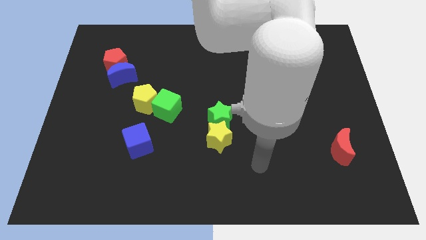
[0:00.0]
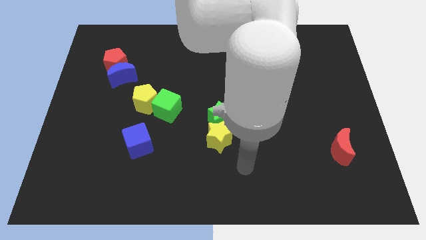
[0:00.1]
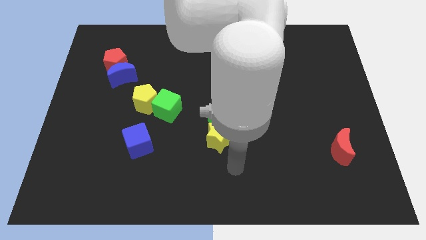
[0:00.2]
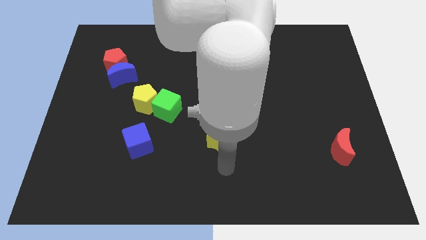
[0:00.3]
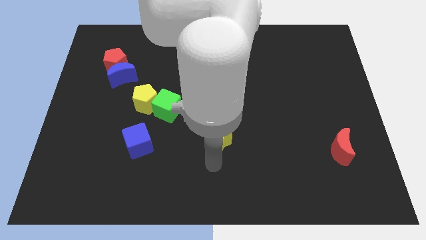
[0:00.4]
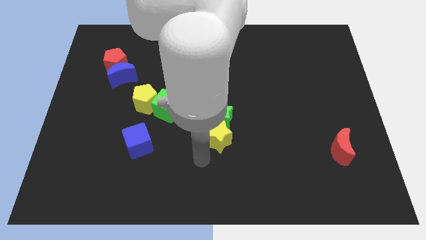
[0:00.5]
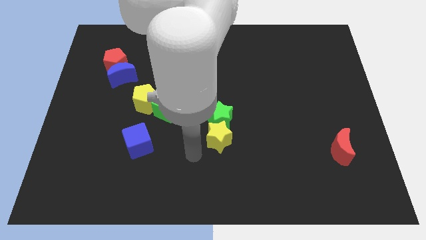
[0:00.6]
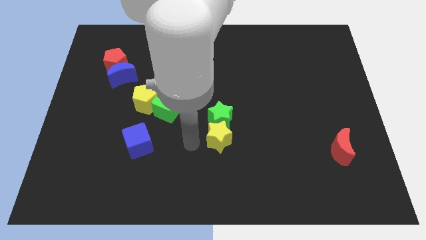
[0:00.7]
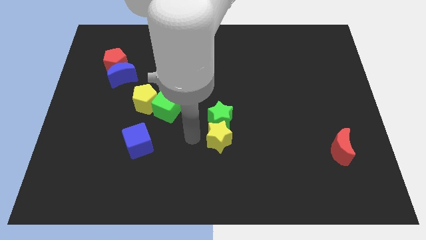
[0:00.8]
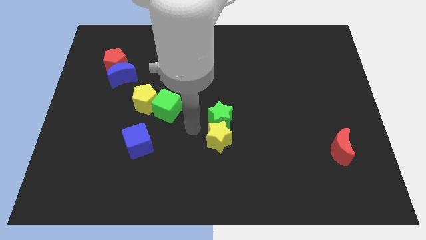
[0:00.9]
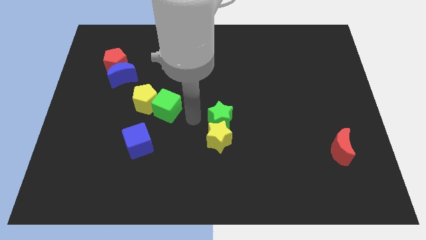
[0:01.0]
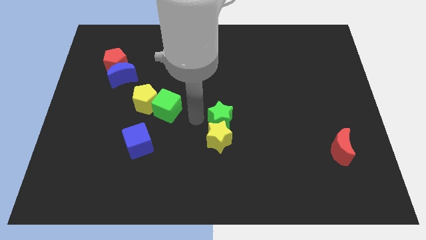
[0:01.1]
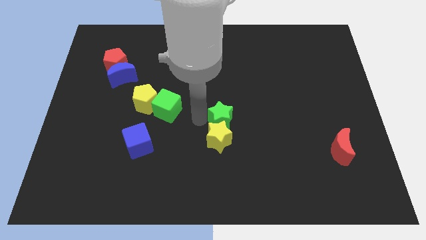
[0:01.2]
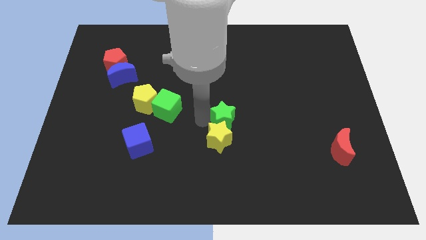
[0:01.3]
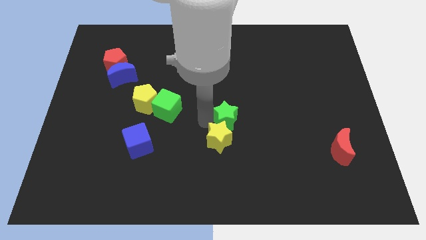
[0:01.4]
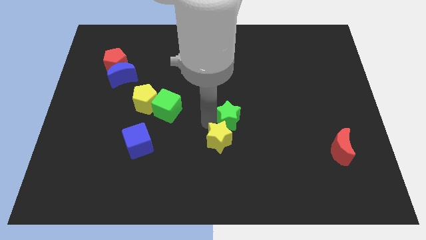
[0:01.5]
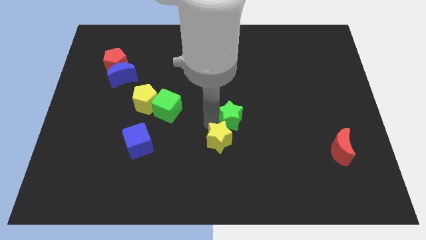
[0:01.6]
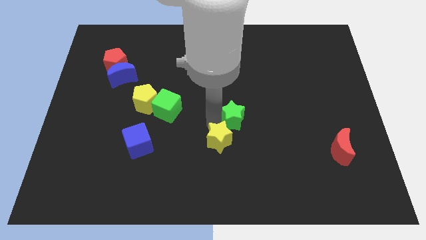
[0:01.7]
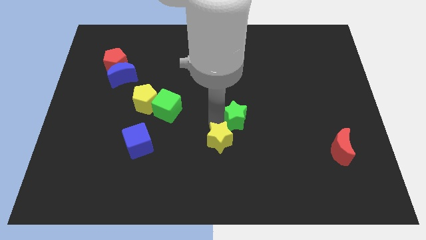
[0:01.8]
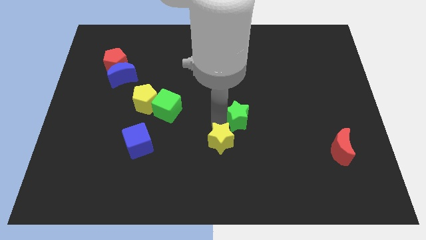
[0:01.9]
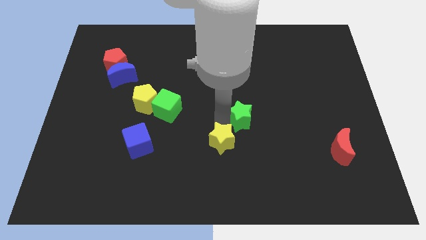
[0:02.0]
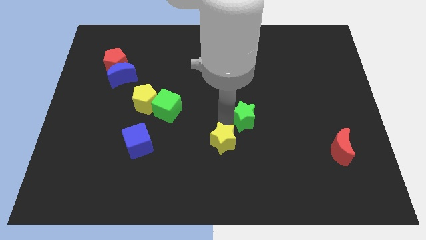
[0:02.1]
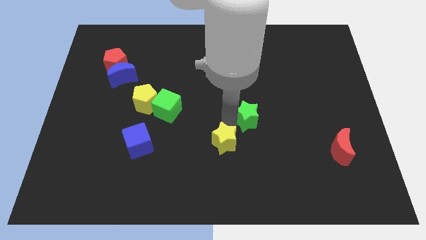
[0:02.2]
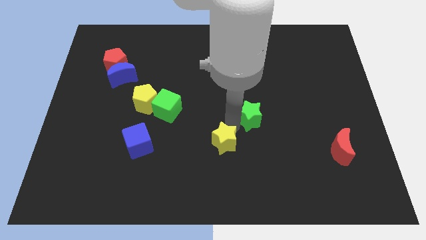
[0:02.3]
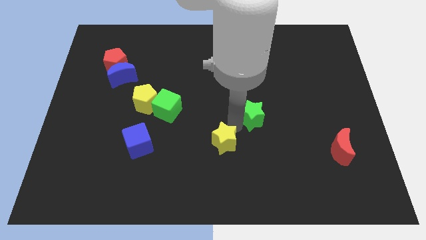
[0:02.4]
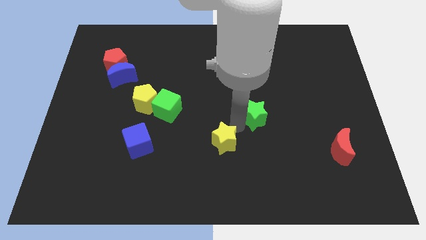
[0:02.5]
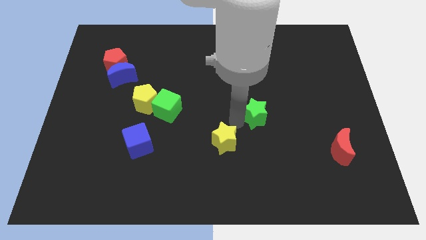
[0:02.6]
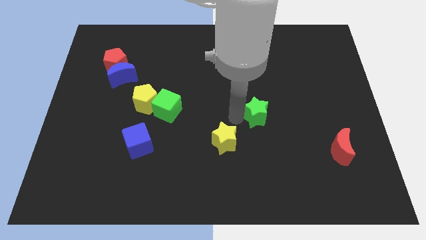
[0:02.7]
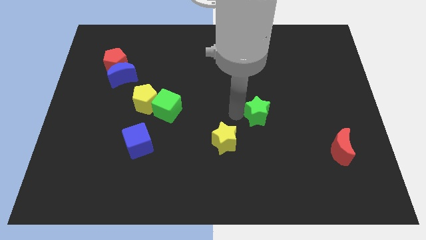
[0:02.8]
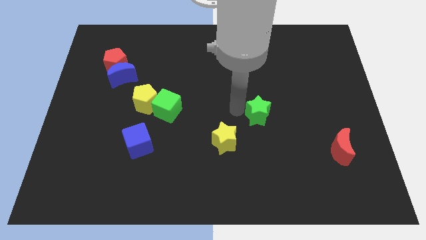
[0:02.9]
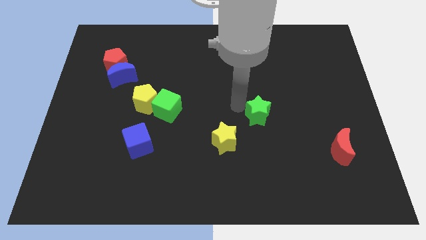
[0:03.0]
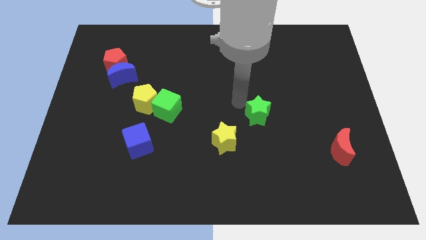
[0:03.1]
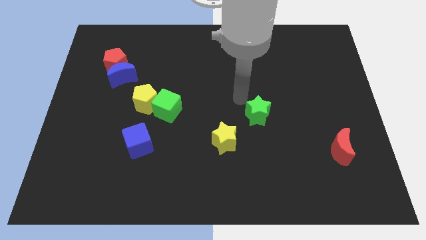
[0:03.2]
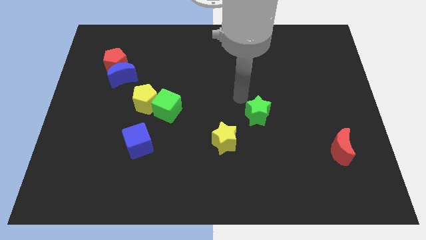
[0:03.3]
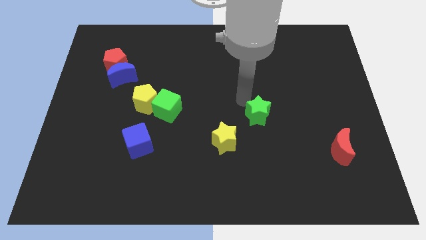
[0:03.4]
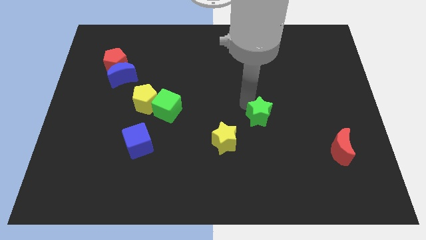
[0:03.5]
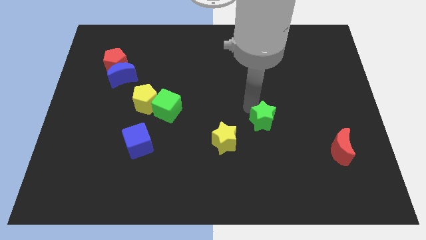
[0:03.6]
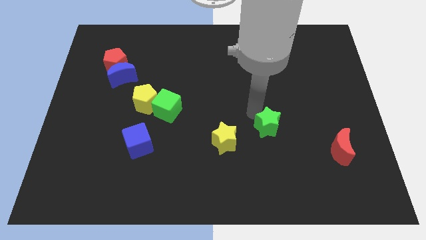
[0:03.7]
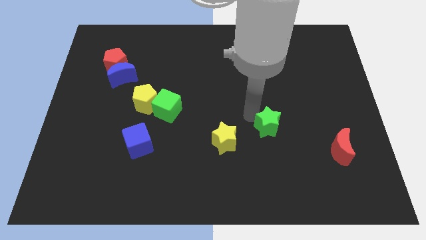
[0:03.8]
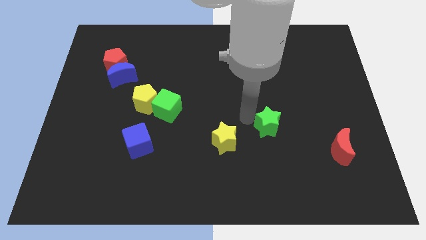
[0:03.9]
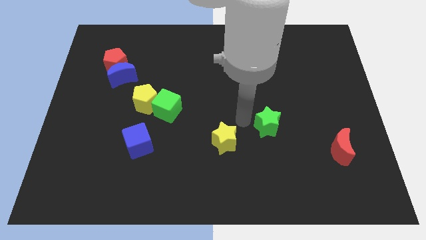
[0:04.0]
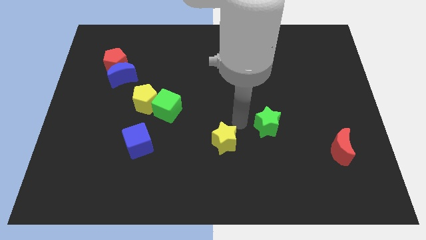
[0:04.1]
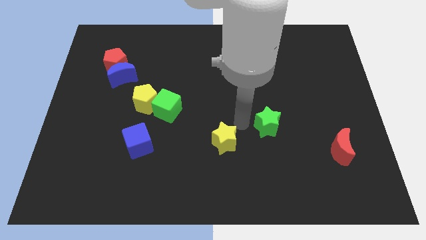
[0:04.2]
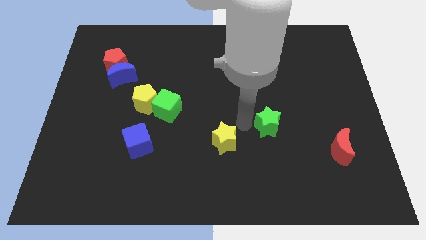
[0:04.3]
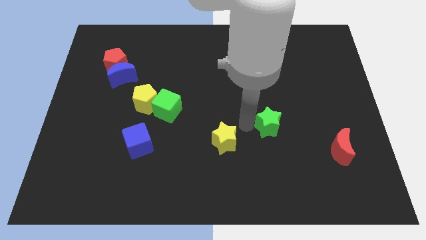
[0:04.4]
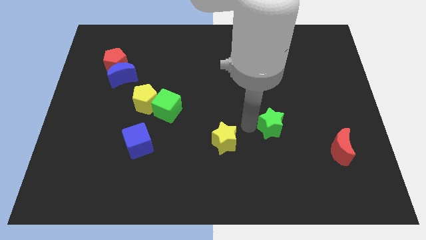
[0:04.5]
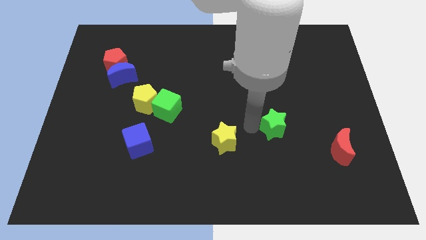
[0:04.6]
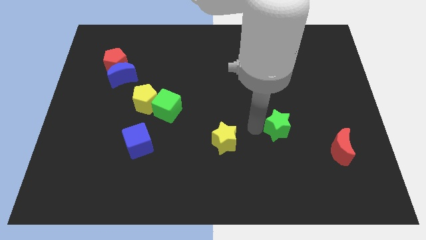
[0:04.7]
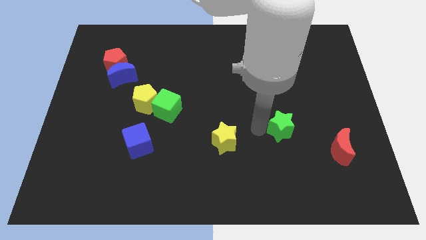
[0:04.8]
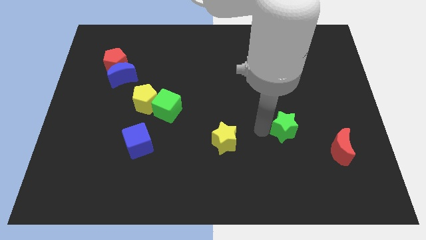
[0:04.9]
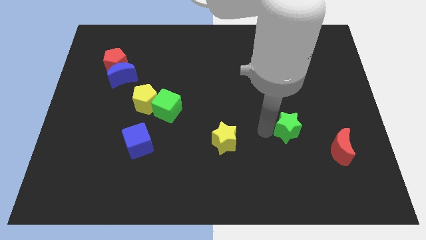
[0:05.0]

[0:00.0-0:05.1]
move the green star to the top left of the red moon

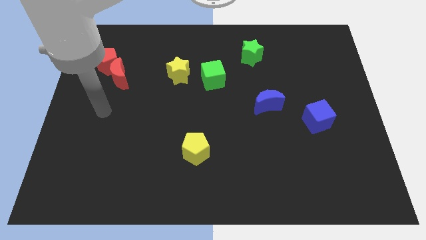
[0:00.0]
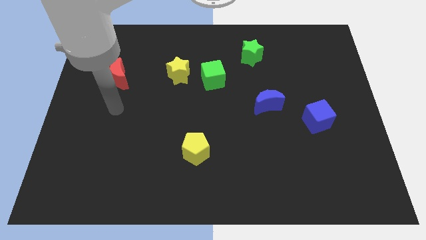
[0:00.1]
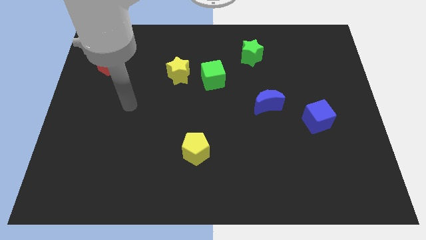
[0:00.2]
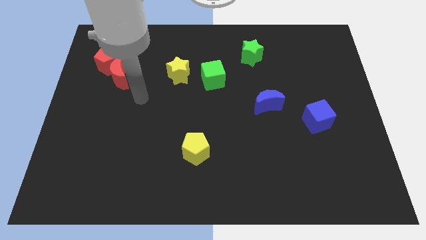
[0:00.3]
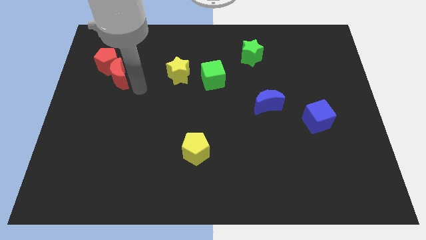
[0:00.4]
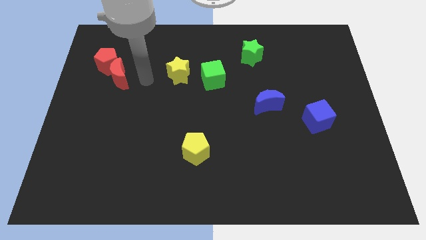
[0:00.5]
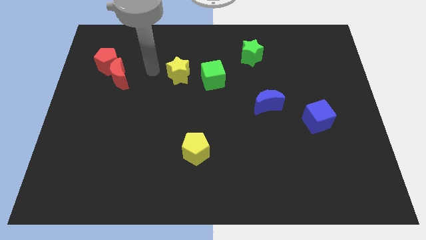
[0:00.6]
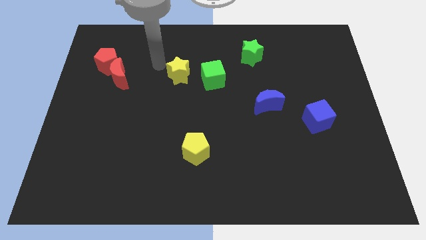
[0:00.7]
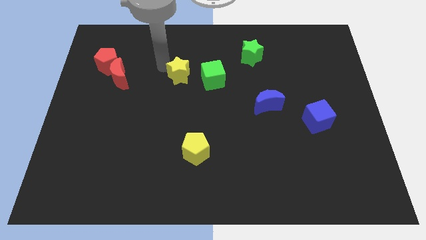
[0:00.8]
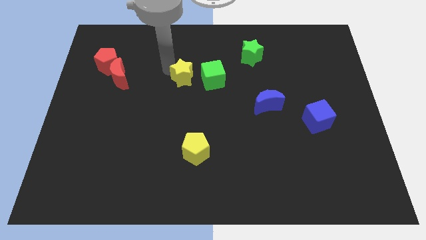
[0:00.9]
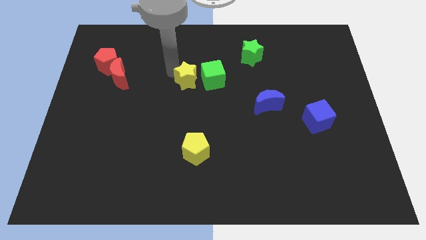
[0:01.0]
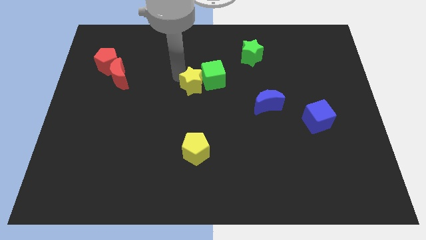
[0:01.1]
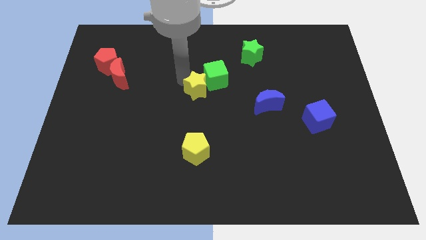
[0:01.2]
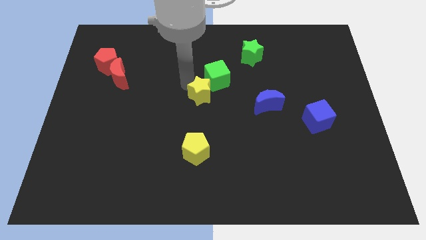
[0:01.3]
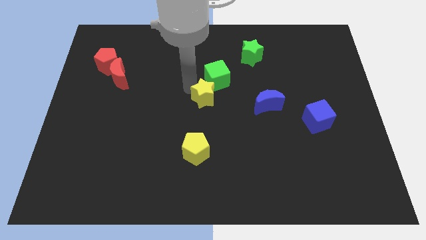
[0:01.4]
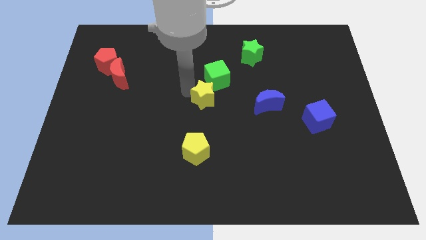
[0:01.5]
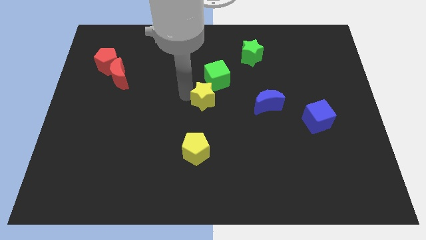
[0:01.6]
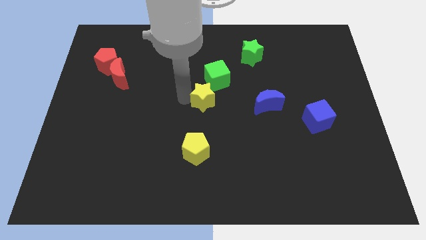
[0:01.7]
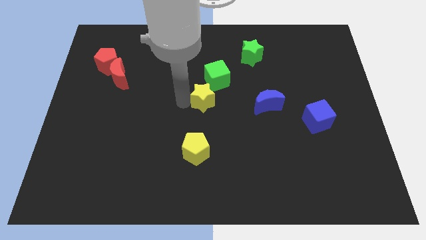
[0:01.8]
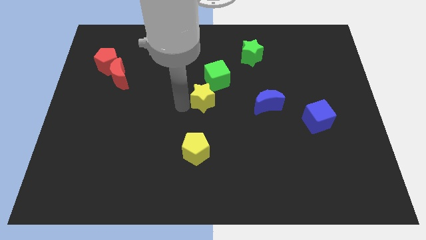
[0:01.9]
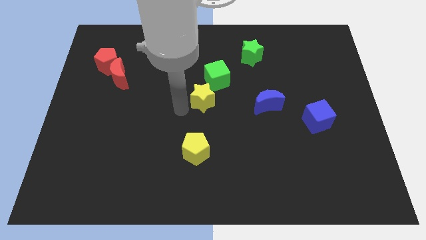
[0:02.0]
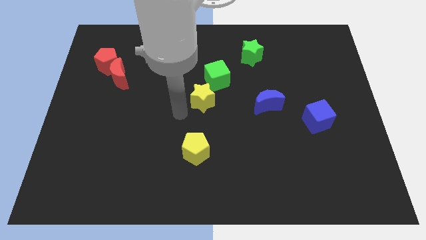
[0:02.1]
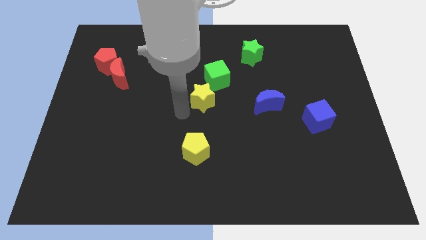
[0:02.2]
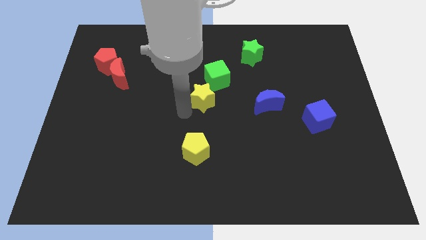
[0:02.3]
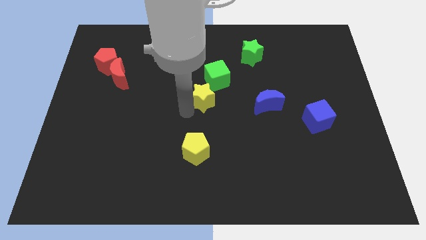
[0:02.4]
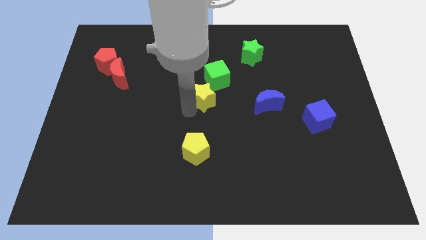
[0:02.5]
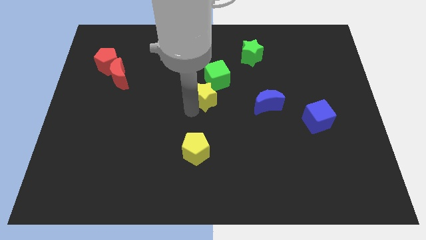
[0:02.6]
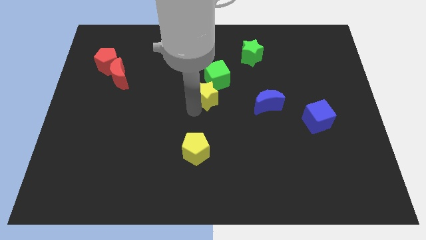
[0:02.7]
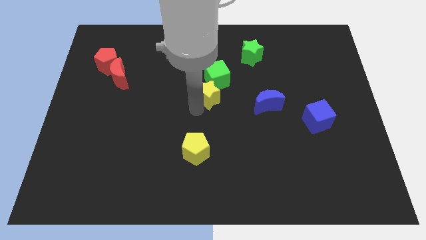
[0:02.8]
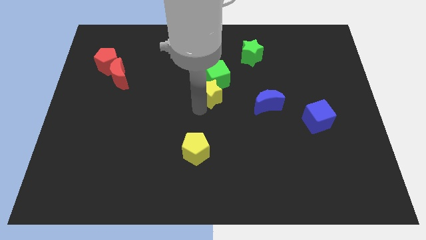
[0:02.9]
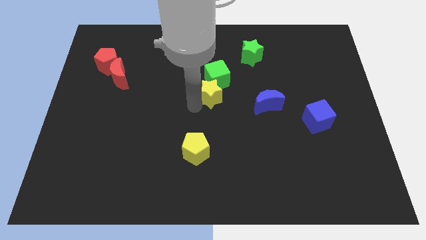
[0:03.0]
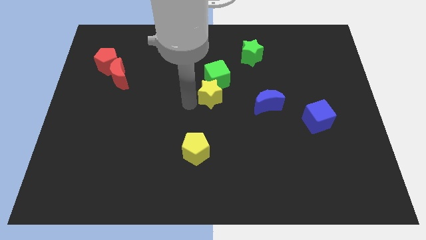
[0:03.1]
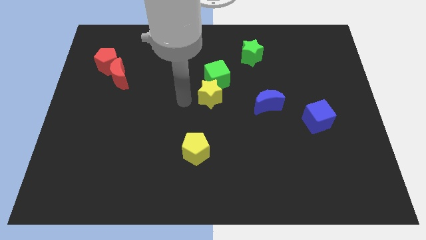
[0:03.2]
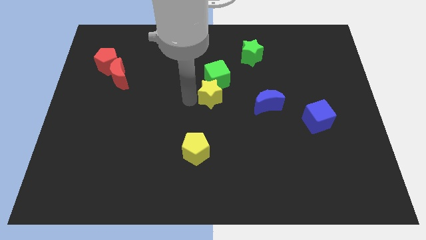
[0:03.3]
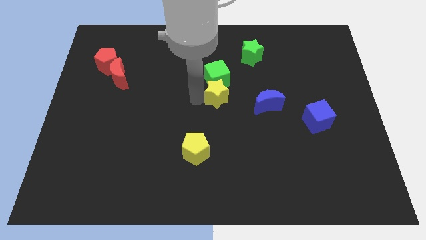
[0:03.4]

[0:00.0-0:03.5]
slide the yellow star to the bottom right side of the green cube
